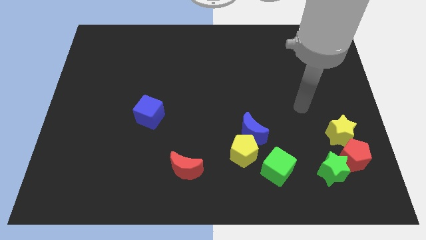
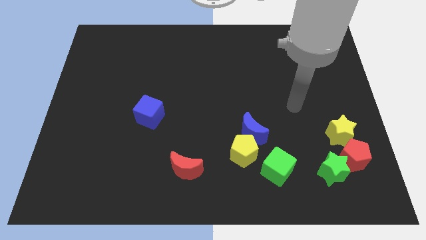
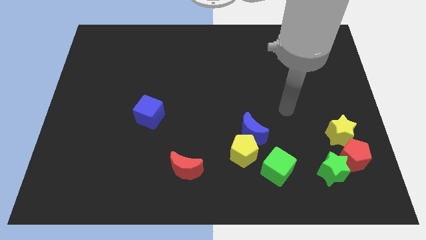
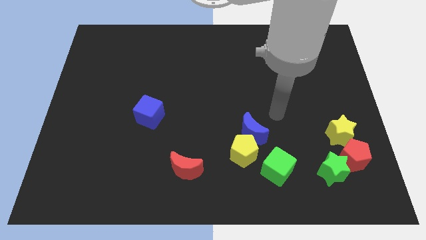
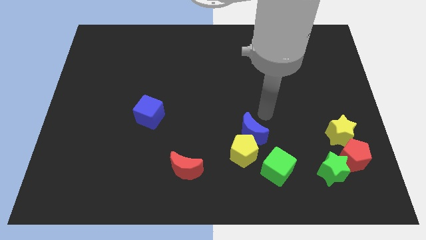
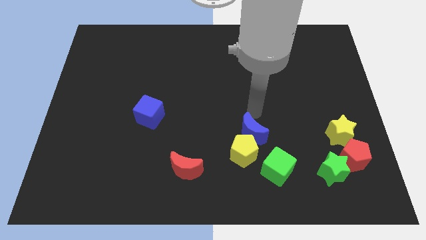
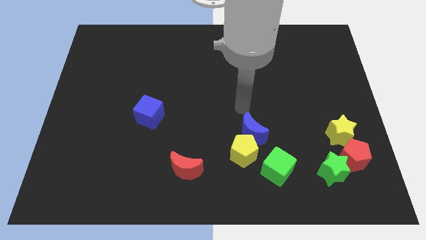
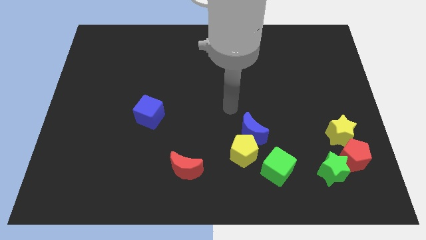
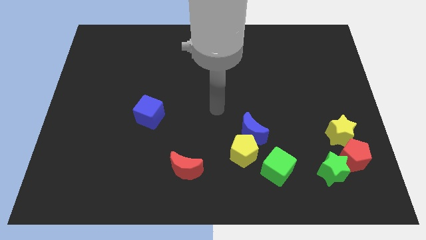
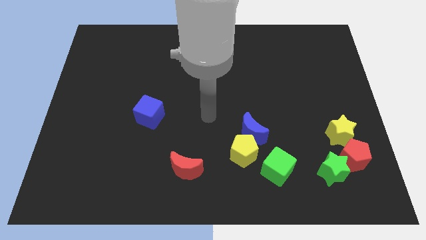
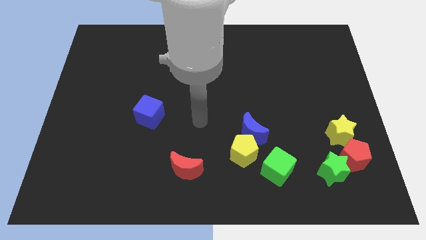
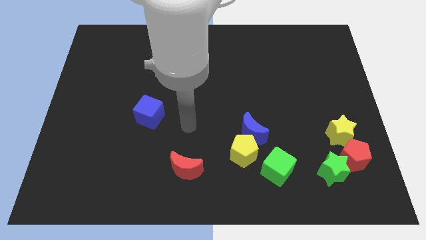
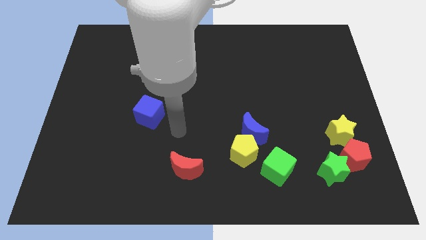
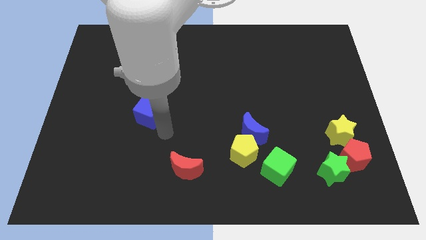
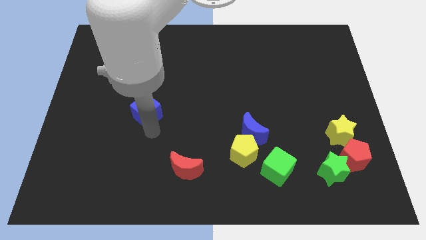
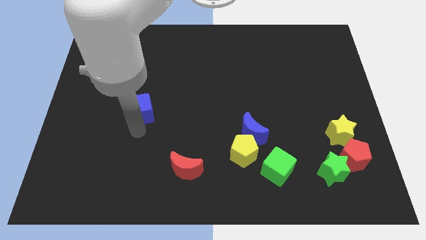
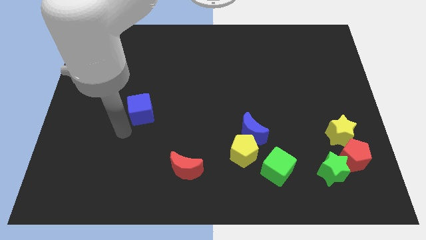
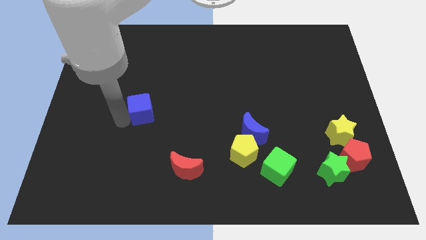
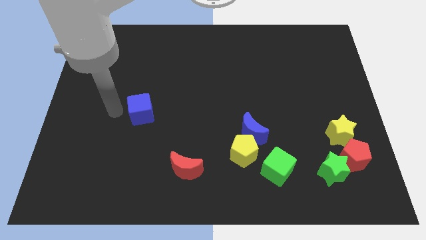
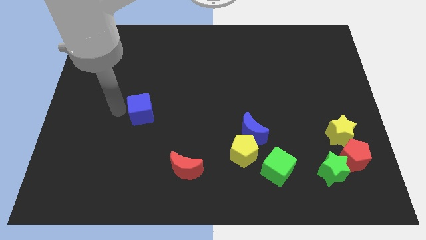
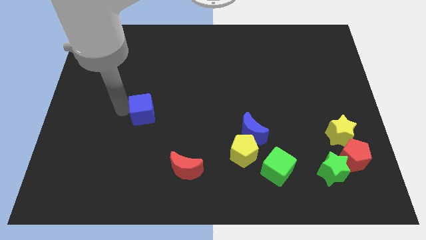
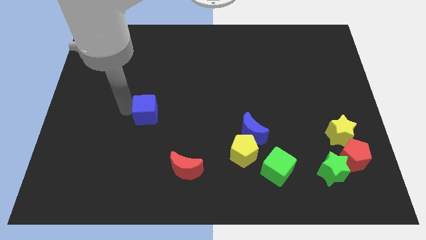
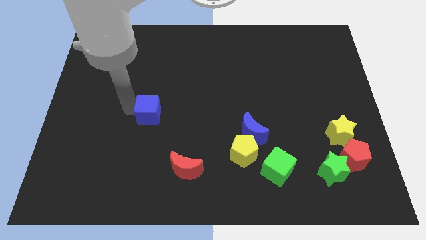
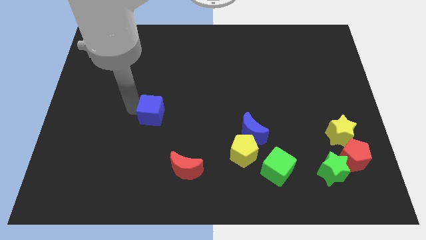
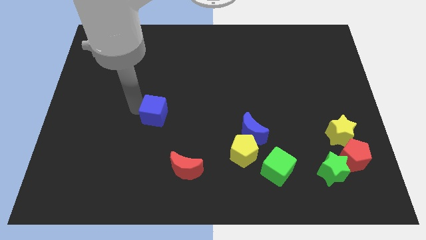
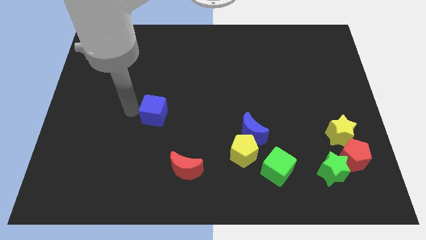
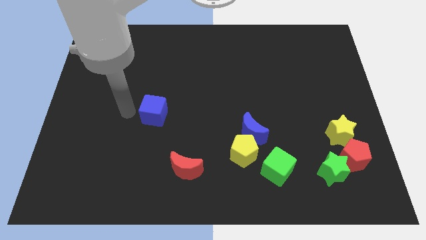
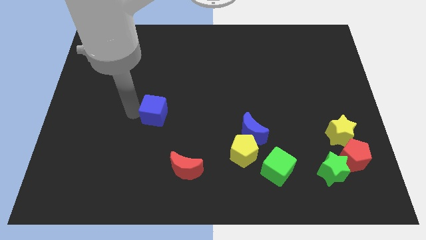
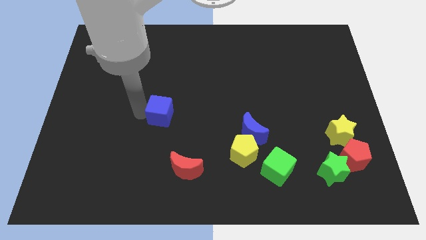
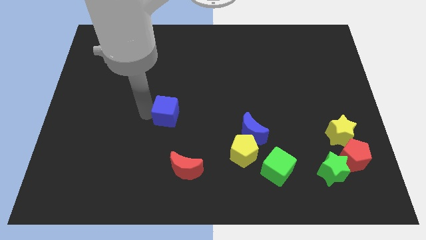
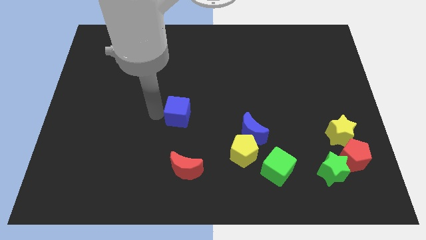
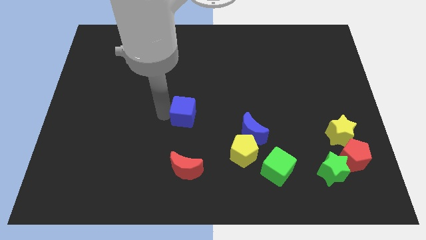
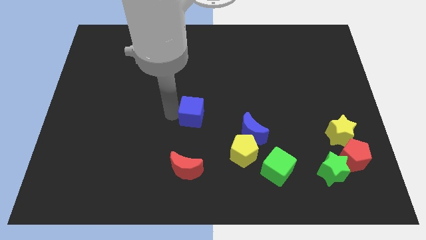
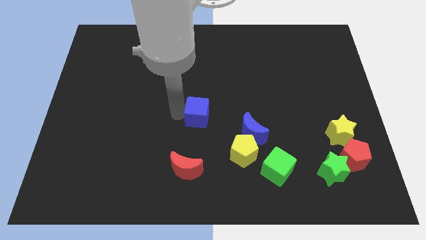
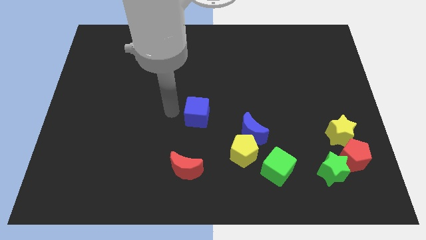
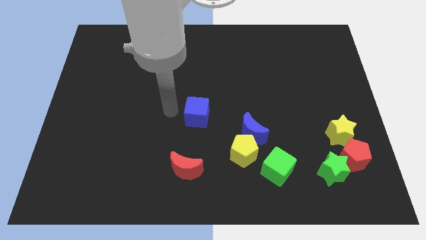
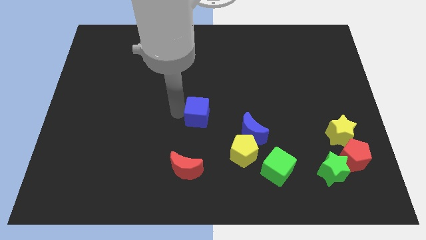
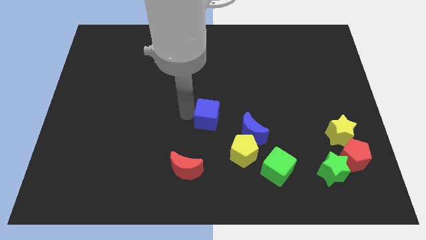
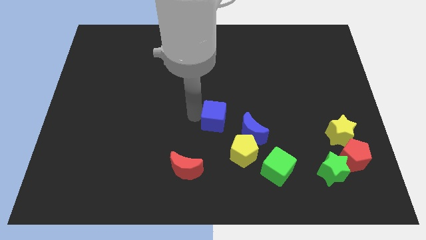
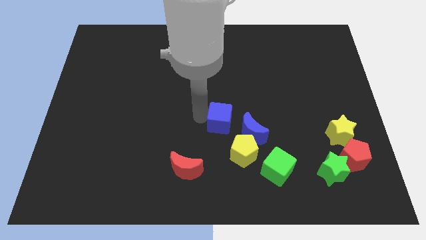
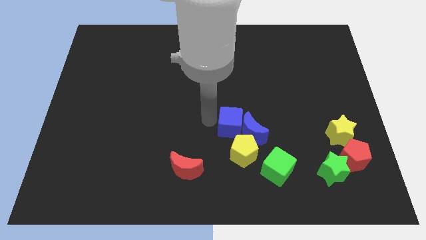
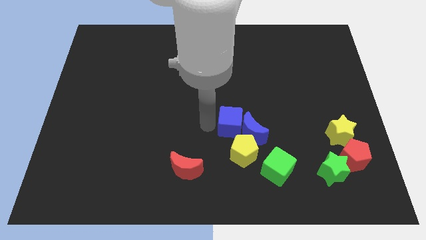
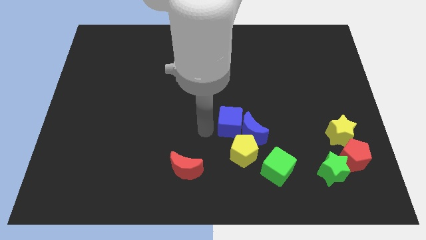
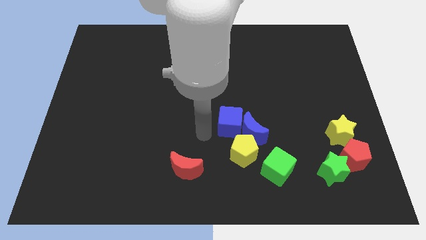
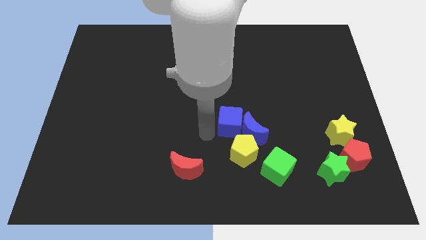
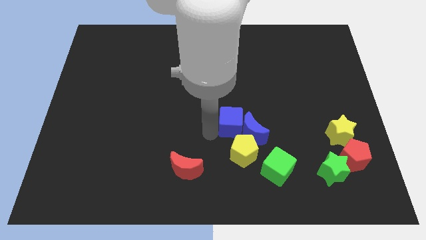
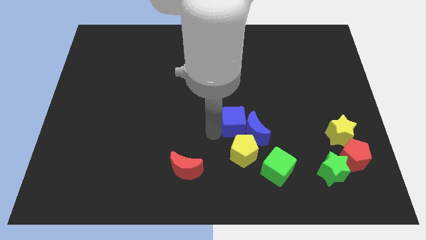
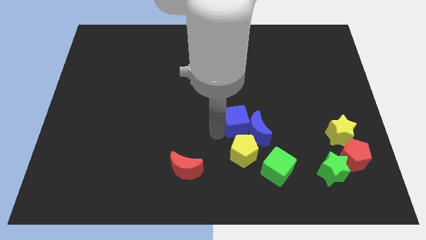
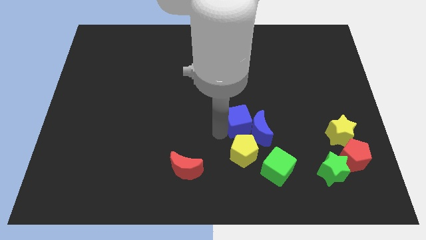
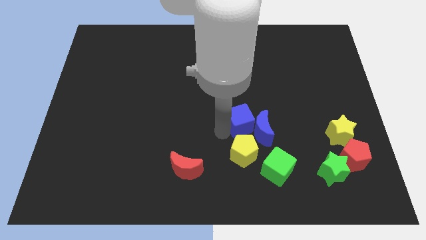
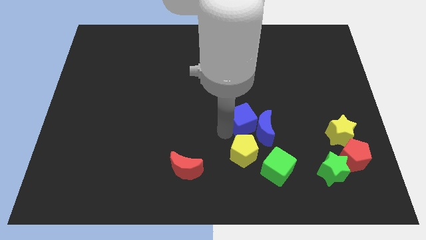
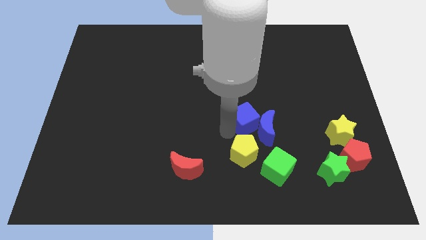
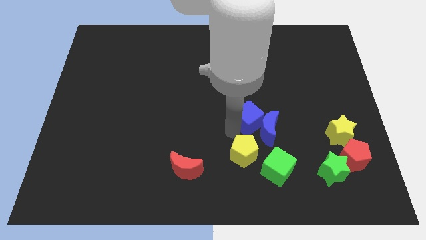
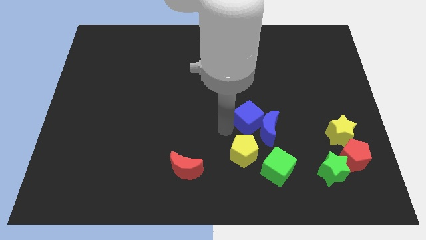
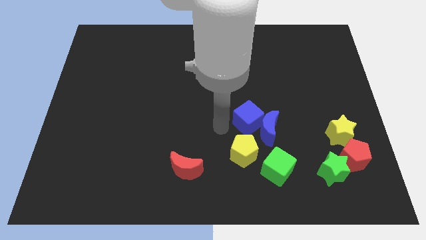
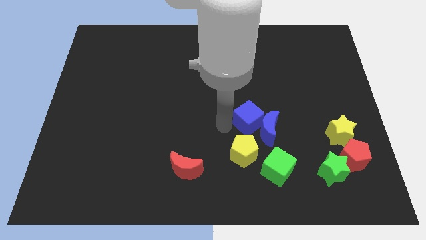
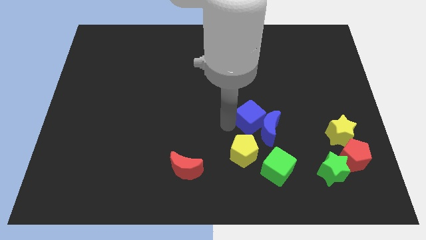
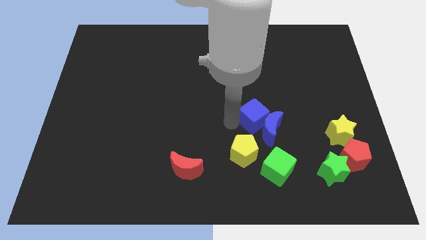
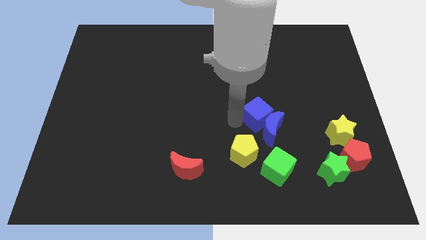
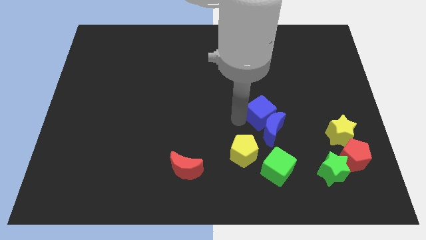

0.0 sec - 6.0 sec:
slide the blue cube to the top right of the blue moon
